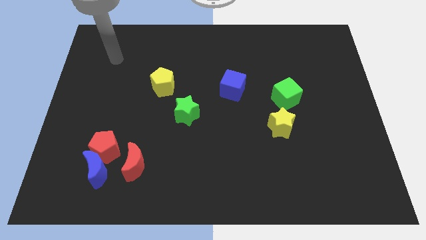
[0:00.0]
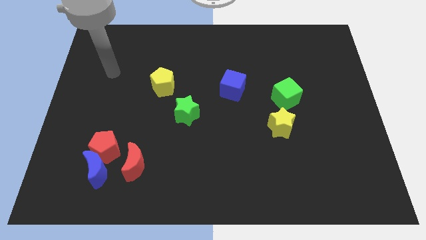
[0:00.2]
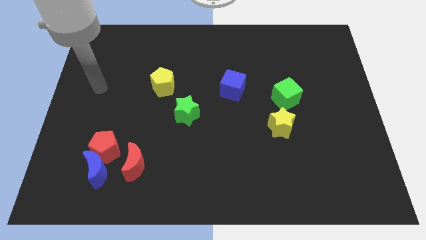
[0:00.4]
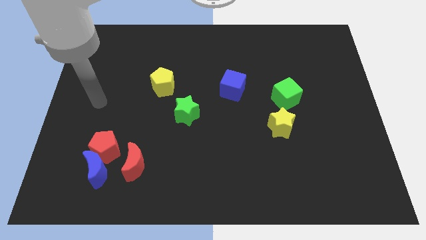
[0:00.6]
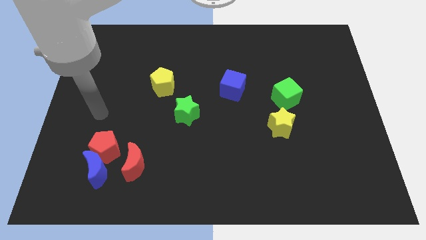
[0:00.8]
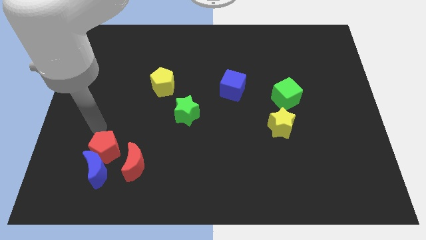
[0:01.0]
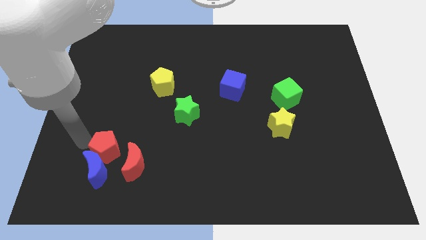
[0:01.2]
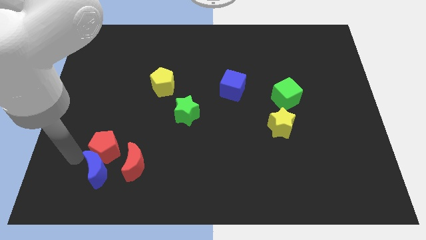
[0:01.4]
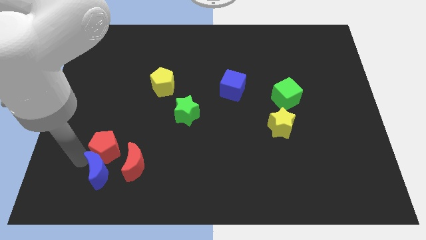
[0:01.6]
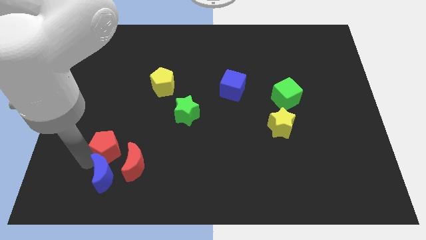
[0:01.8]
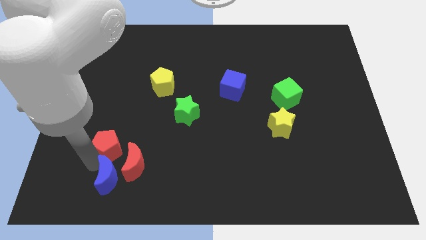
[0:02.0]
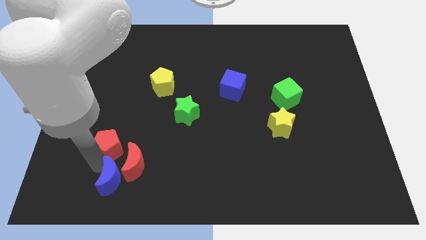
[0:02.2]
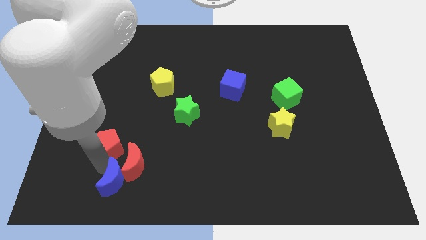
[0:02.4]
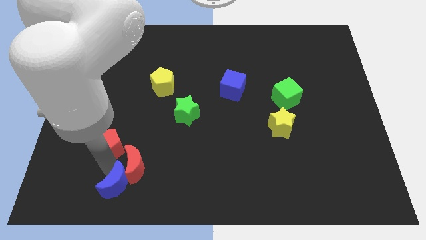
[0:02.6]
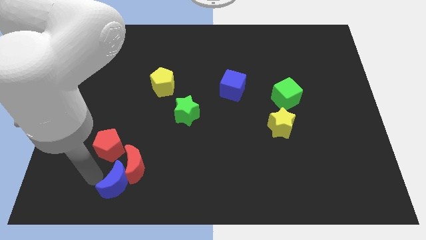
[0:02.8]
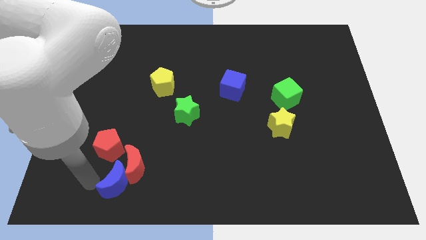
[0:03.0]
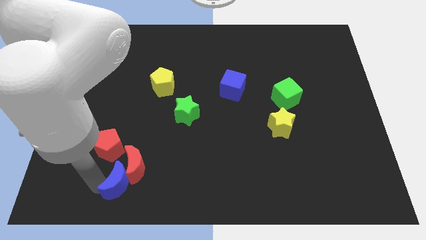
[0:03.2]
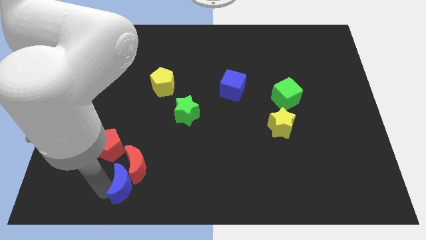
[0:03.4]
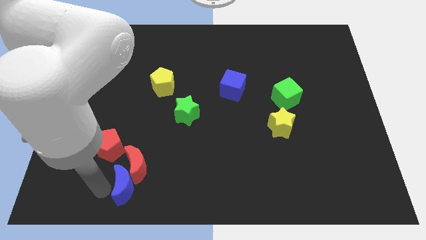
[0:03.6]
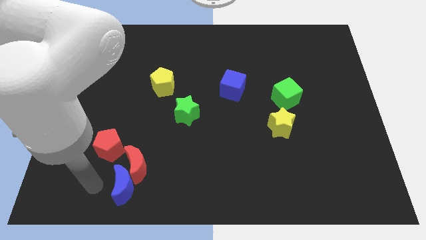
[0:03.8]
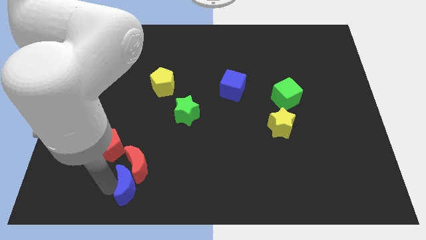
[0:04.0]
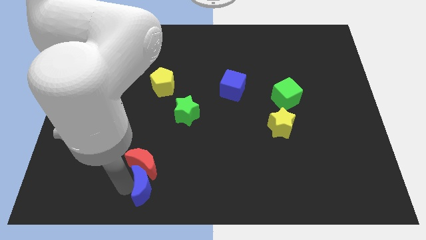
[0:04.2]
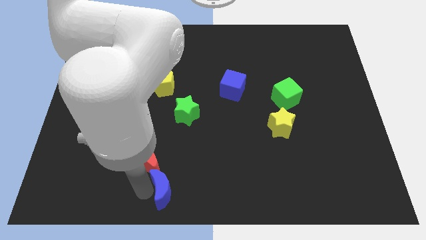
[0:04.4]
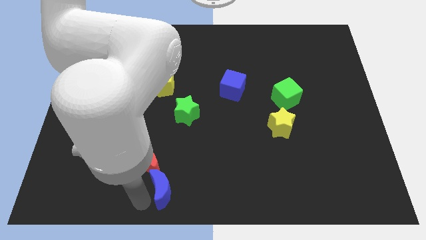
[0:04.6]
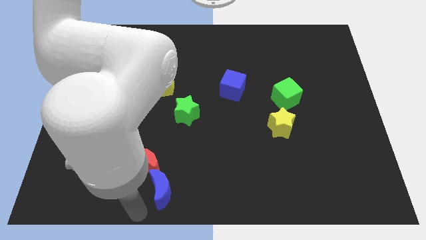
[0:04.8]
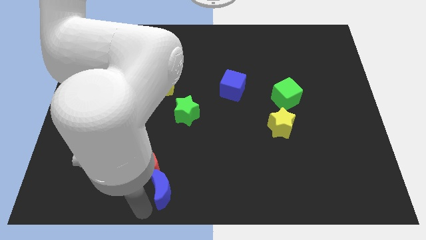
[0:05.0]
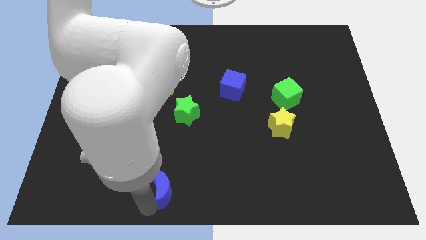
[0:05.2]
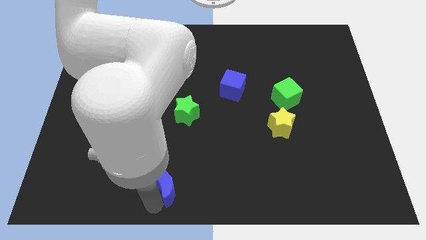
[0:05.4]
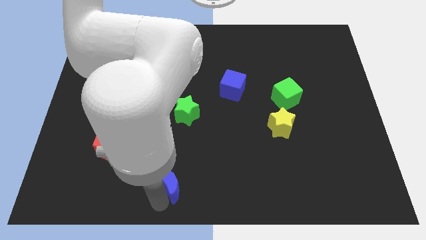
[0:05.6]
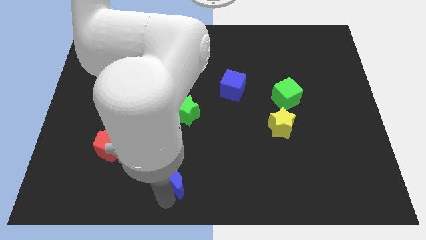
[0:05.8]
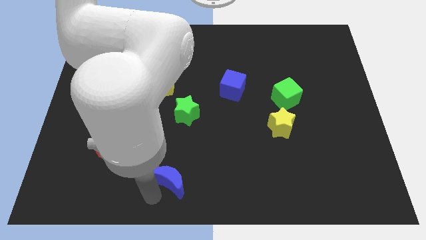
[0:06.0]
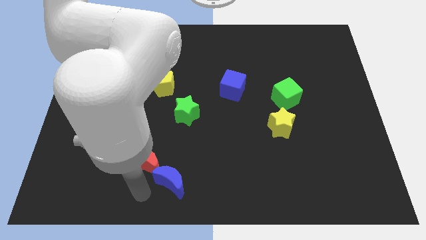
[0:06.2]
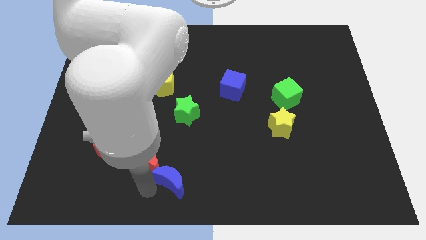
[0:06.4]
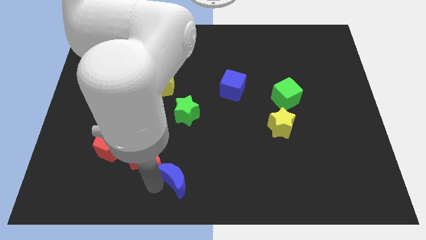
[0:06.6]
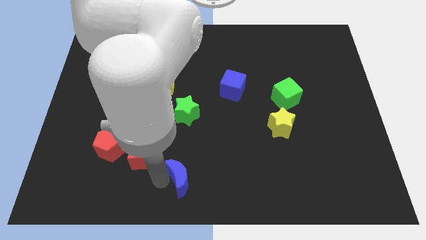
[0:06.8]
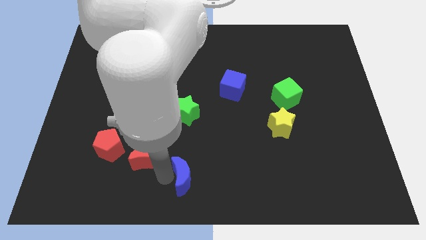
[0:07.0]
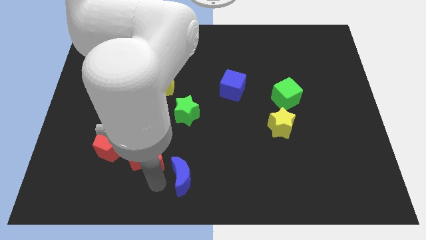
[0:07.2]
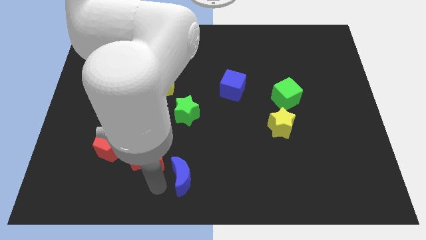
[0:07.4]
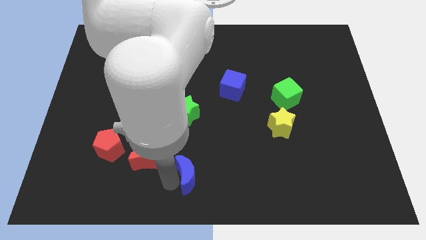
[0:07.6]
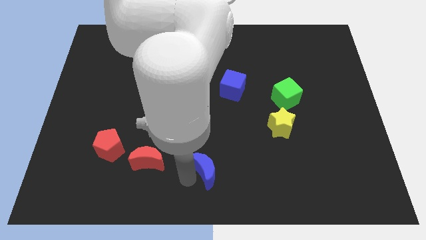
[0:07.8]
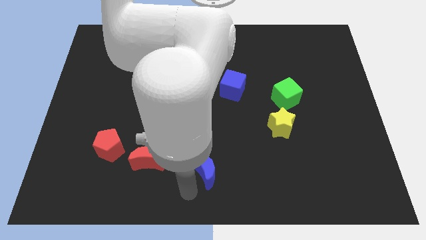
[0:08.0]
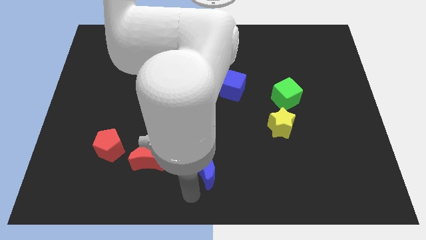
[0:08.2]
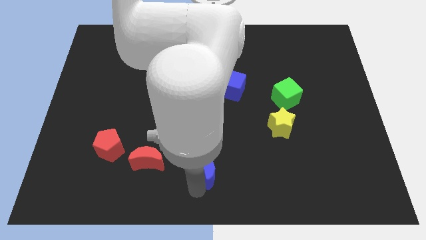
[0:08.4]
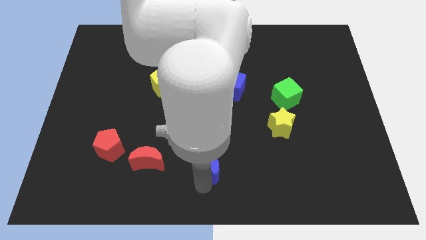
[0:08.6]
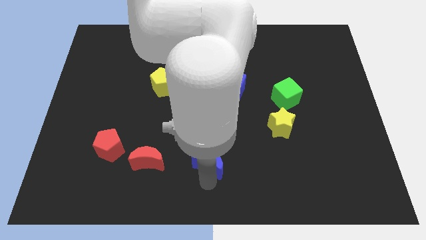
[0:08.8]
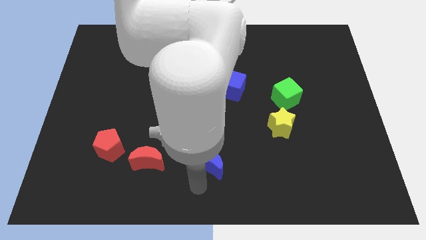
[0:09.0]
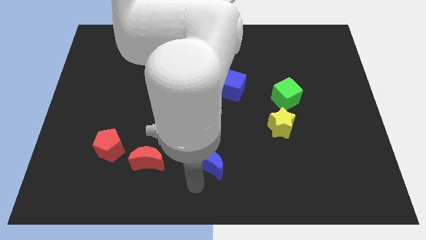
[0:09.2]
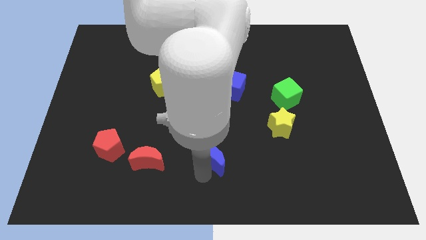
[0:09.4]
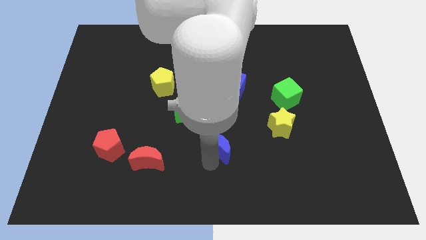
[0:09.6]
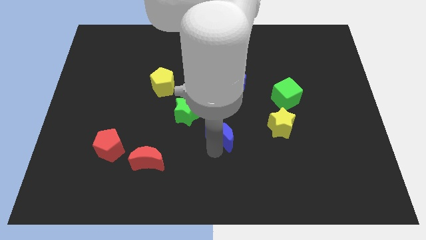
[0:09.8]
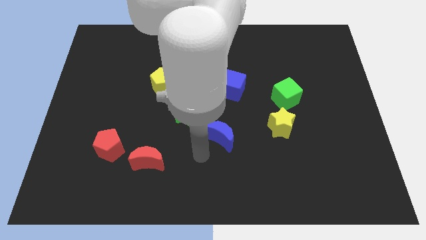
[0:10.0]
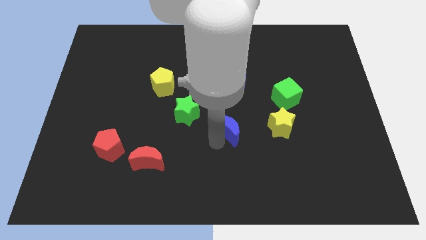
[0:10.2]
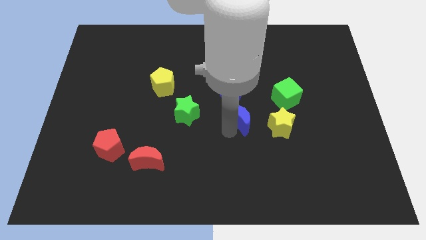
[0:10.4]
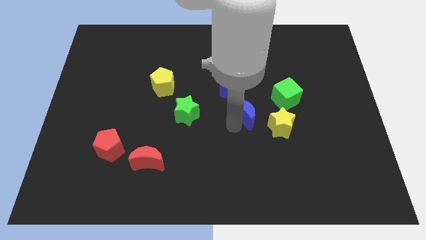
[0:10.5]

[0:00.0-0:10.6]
put the blue moon to the top left side of the yellow star

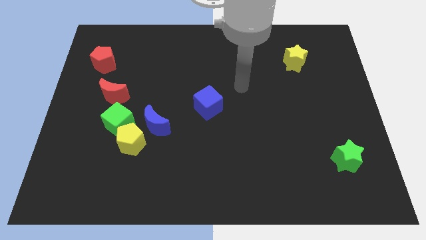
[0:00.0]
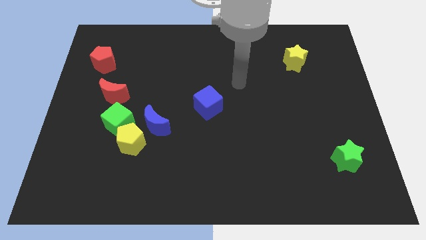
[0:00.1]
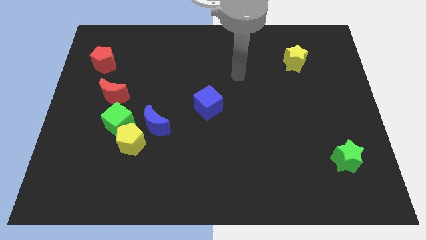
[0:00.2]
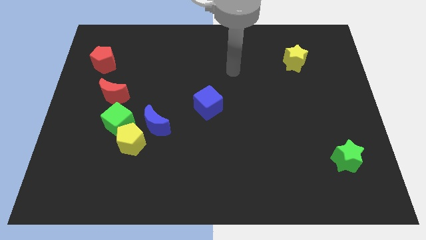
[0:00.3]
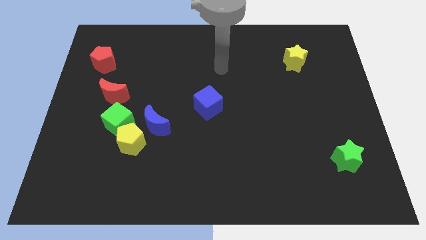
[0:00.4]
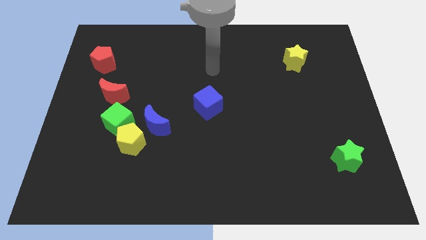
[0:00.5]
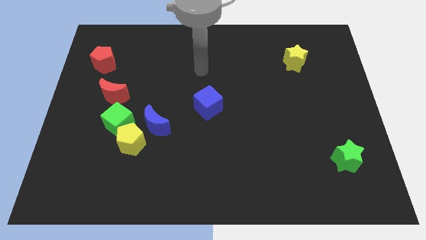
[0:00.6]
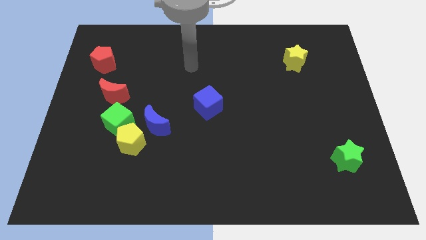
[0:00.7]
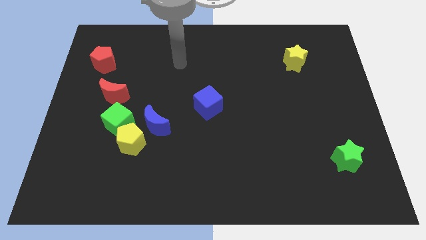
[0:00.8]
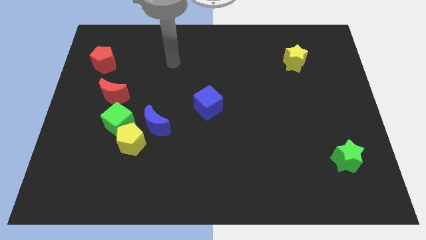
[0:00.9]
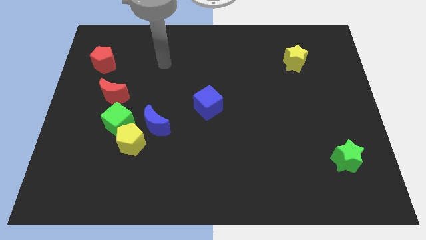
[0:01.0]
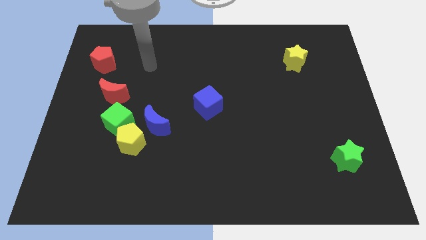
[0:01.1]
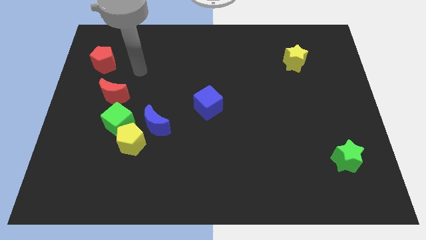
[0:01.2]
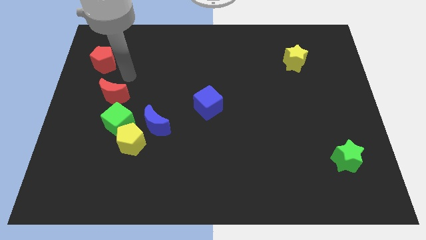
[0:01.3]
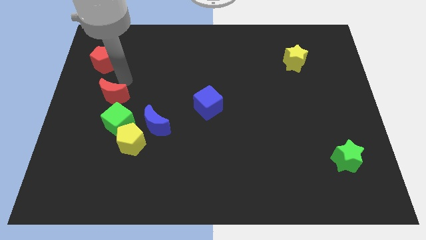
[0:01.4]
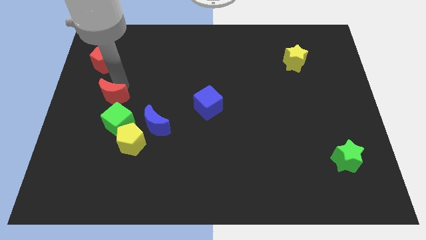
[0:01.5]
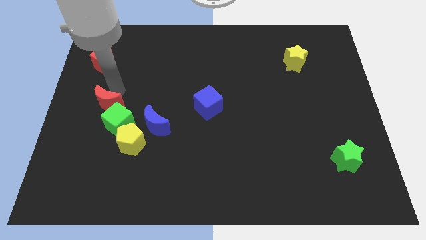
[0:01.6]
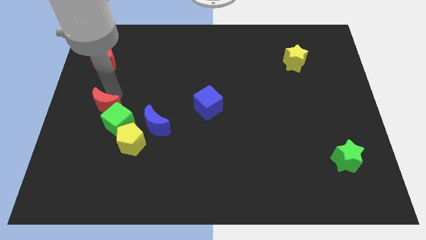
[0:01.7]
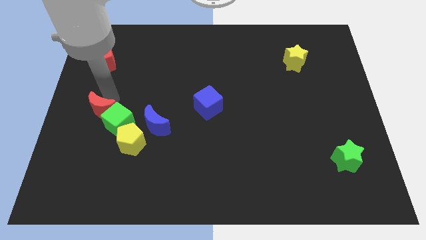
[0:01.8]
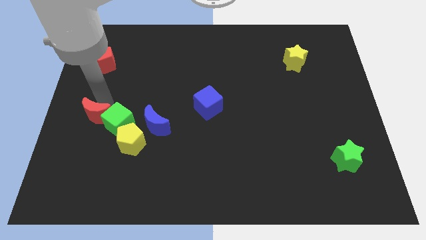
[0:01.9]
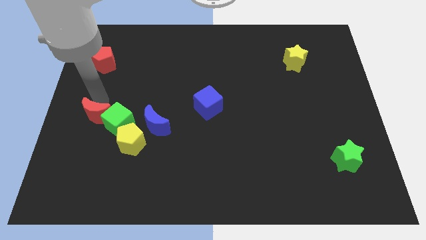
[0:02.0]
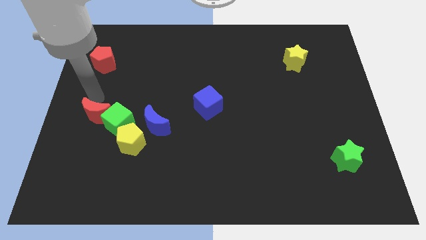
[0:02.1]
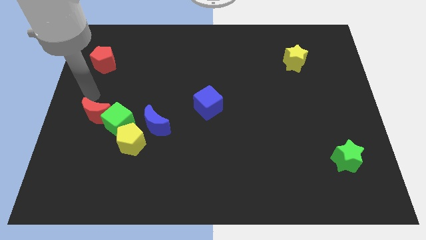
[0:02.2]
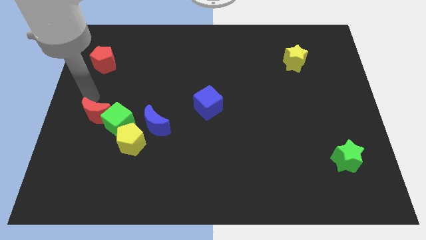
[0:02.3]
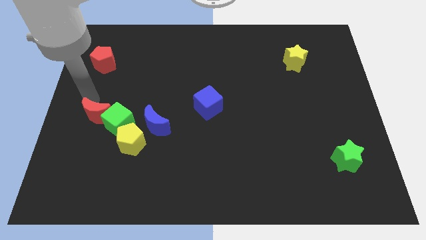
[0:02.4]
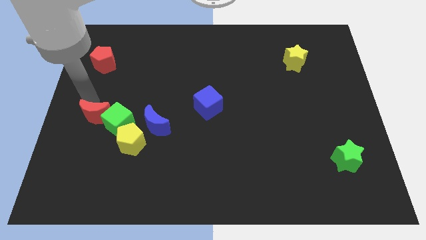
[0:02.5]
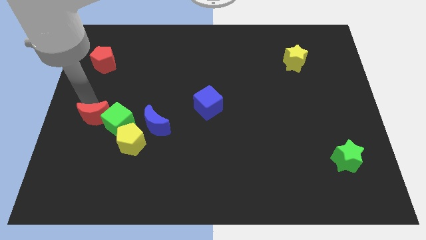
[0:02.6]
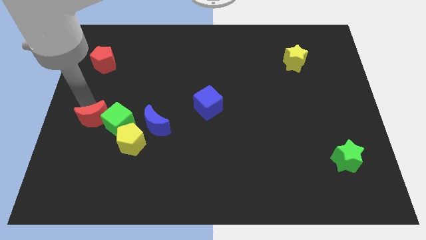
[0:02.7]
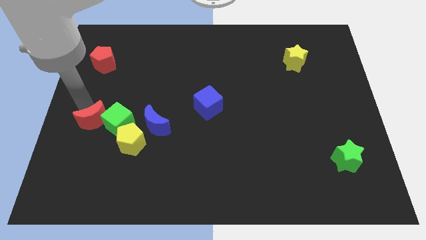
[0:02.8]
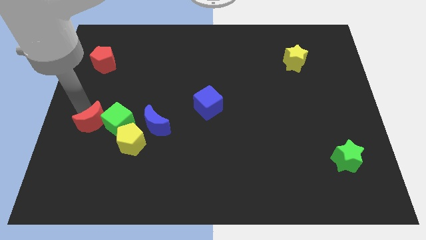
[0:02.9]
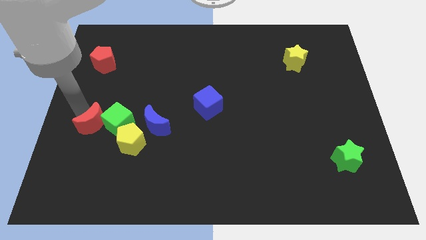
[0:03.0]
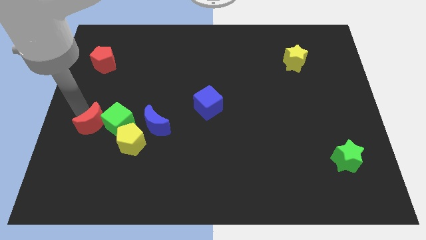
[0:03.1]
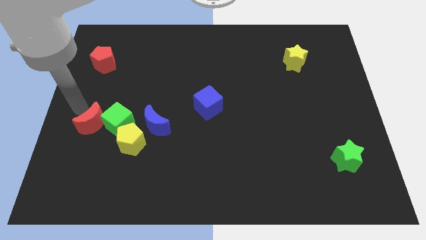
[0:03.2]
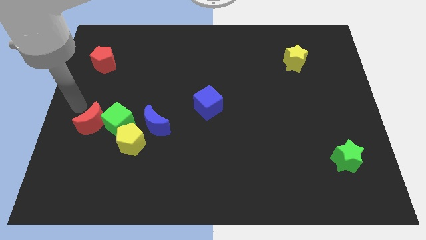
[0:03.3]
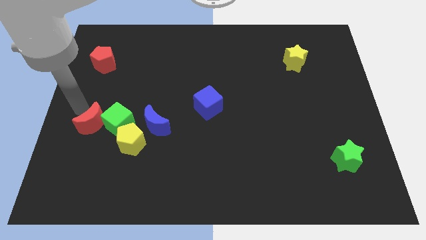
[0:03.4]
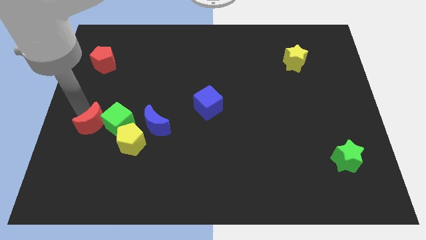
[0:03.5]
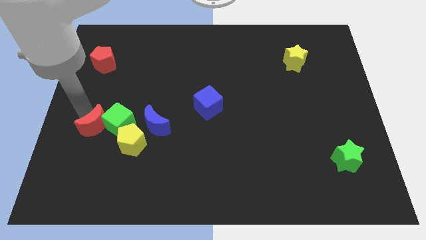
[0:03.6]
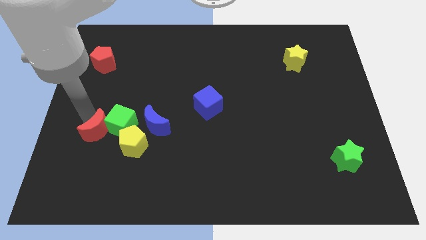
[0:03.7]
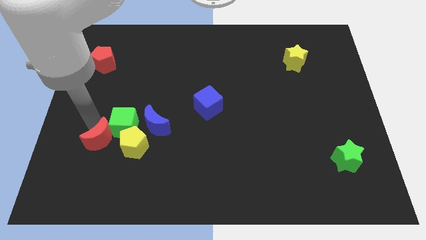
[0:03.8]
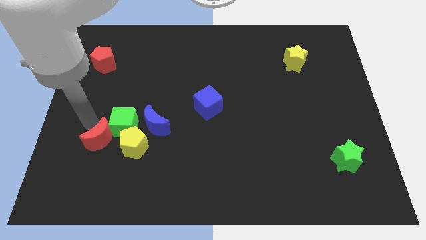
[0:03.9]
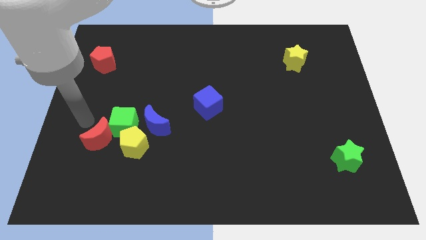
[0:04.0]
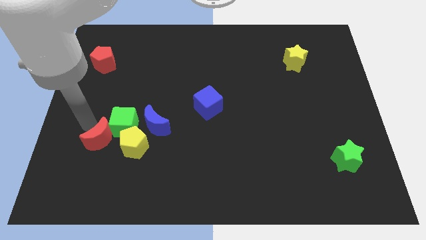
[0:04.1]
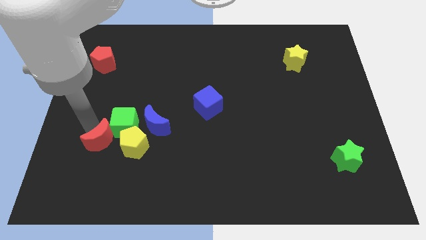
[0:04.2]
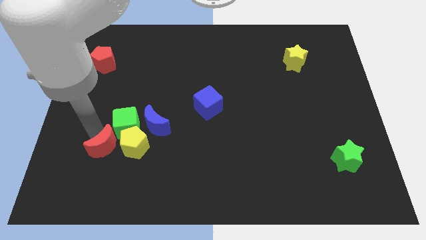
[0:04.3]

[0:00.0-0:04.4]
move the red moon to the bottom left of the blue moon
